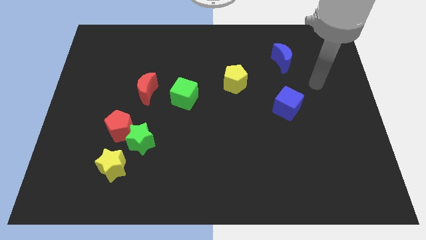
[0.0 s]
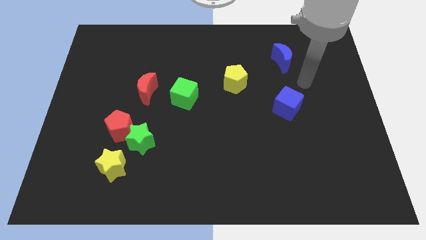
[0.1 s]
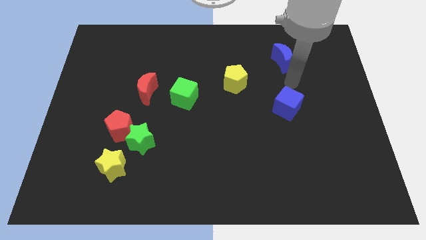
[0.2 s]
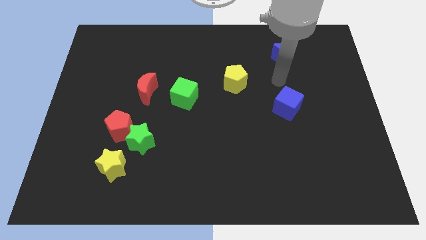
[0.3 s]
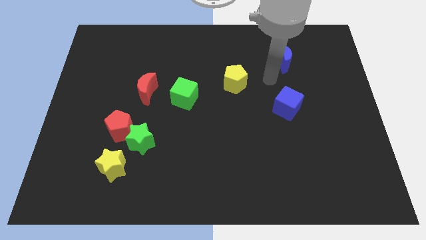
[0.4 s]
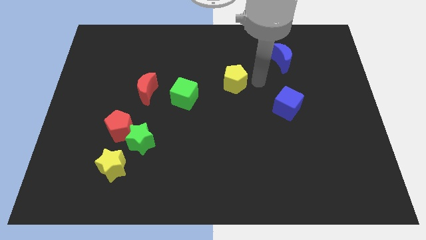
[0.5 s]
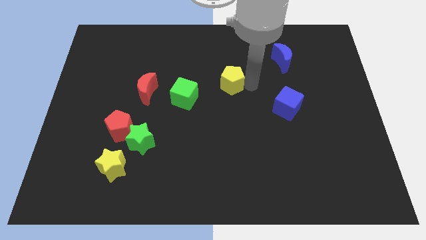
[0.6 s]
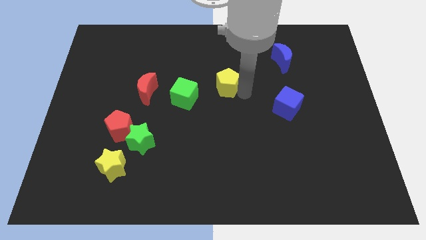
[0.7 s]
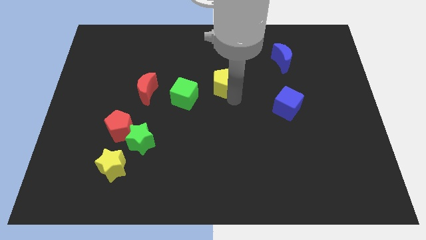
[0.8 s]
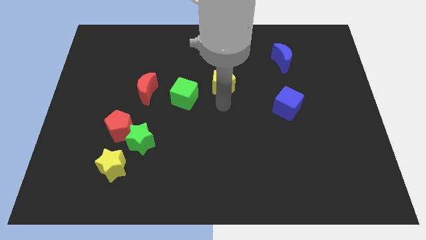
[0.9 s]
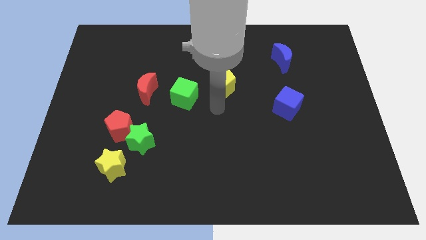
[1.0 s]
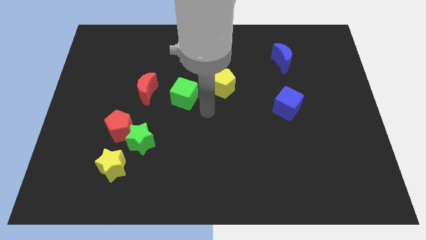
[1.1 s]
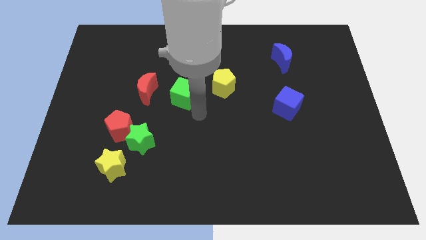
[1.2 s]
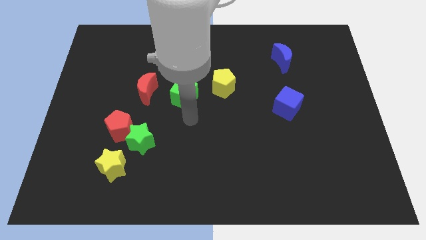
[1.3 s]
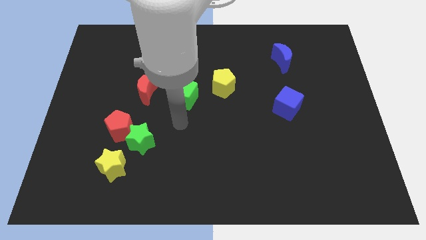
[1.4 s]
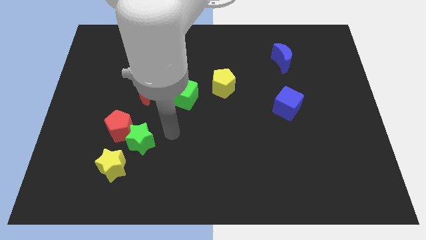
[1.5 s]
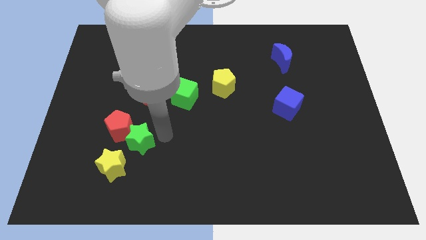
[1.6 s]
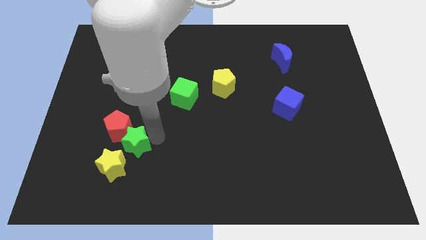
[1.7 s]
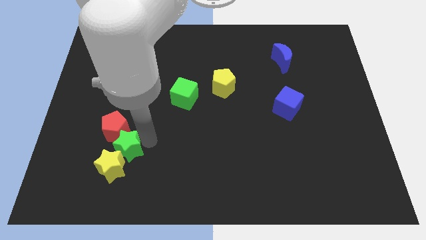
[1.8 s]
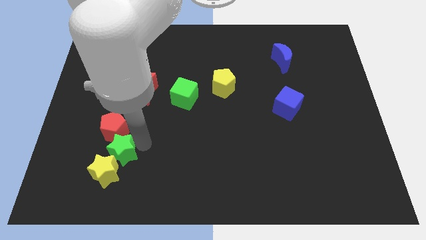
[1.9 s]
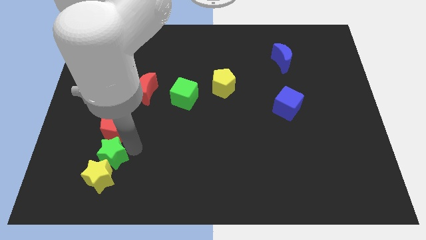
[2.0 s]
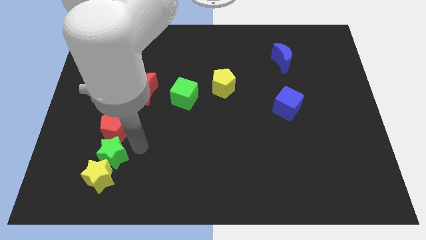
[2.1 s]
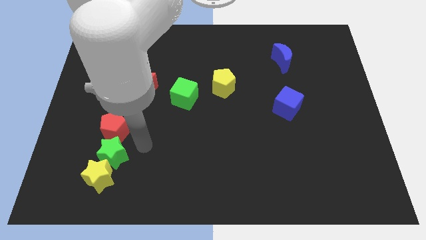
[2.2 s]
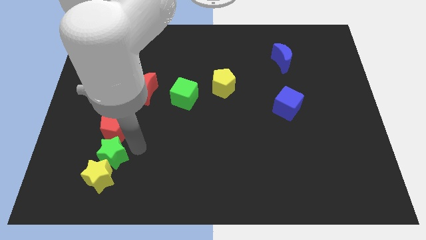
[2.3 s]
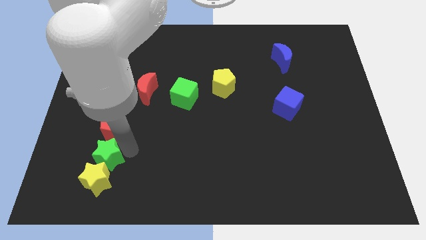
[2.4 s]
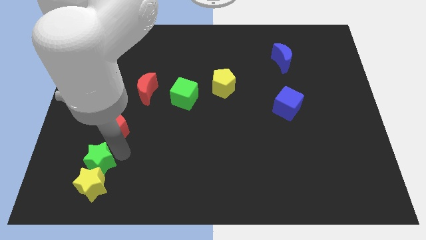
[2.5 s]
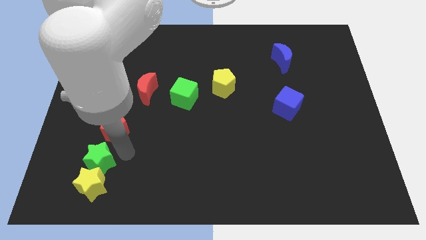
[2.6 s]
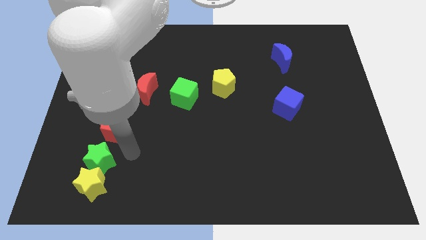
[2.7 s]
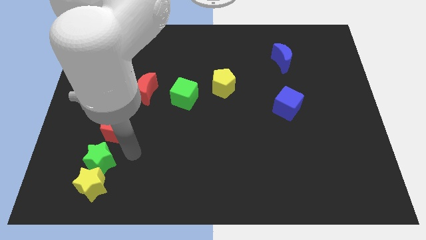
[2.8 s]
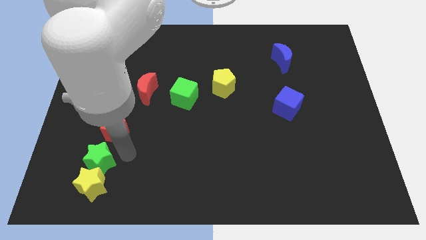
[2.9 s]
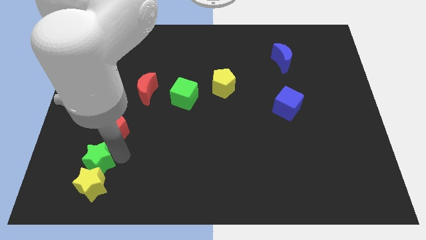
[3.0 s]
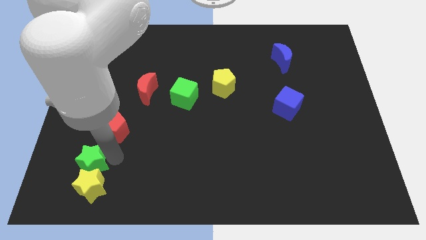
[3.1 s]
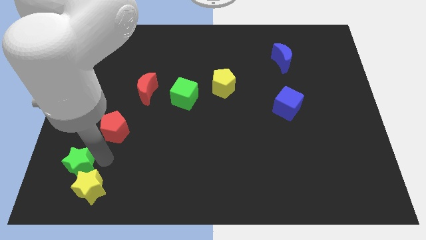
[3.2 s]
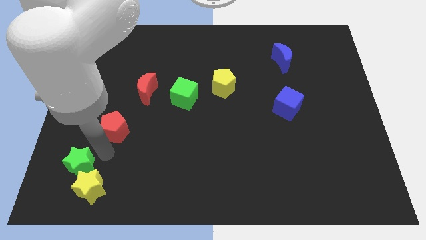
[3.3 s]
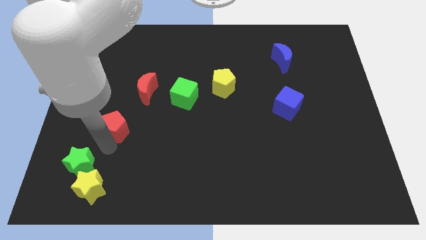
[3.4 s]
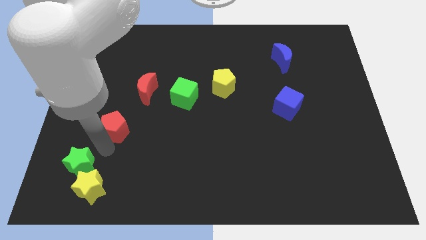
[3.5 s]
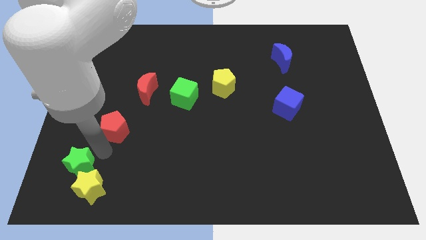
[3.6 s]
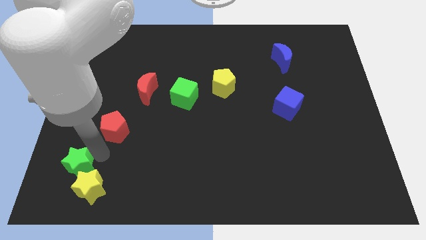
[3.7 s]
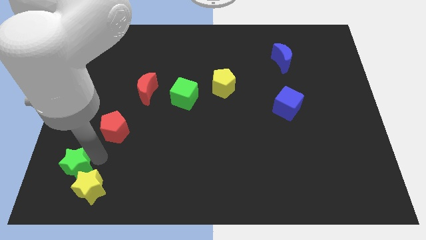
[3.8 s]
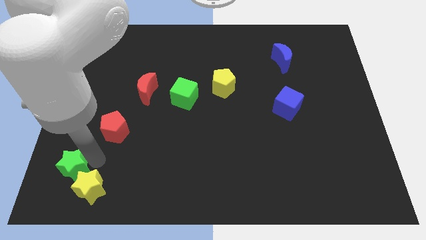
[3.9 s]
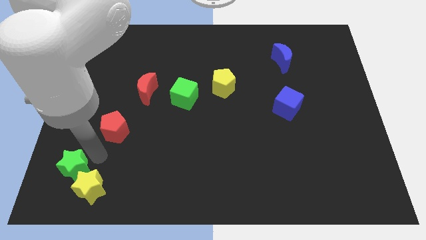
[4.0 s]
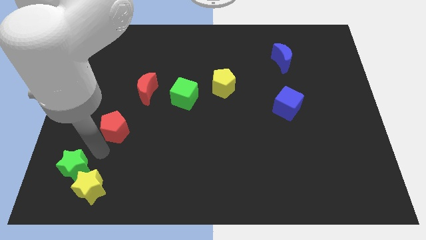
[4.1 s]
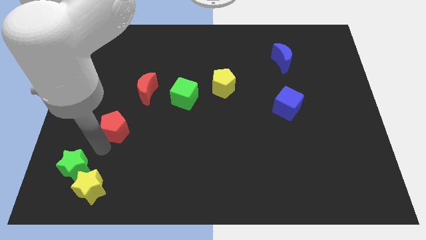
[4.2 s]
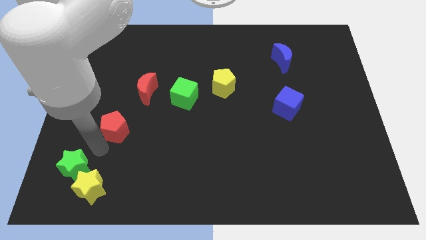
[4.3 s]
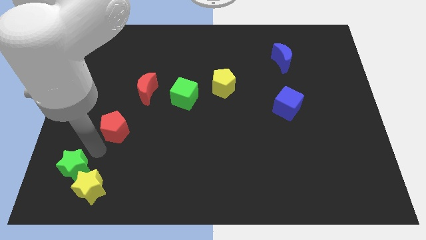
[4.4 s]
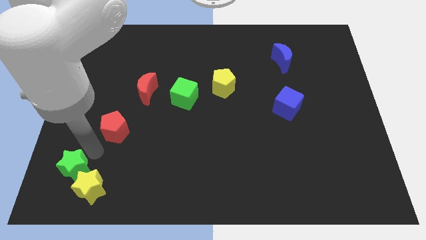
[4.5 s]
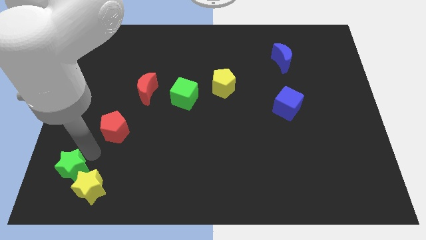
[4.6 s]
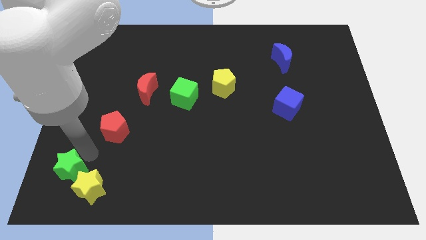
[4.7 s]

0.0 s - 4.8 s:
slide the green star to the bottom left of the board

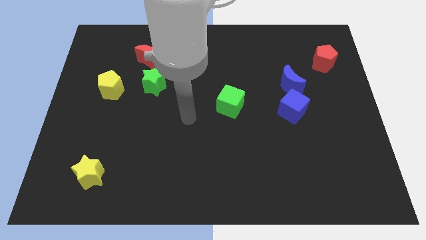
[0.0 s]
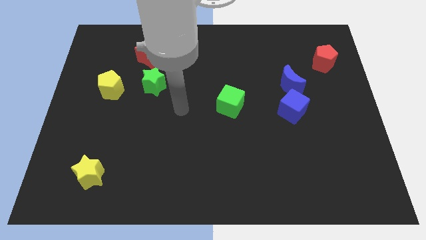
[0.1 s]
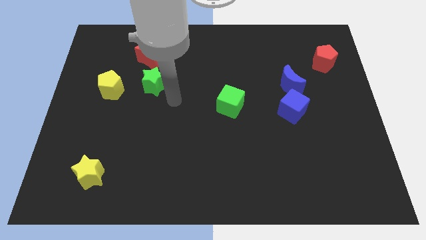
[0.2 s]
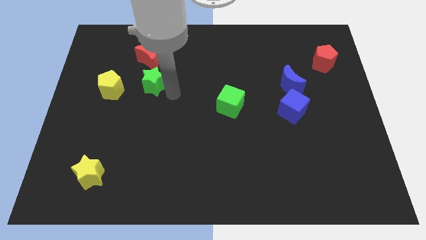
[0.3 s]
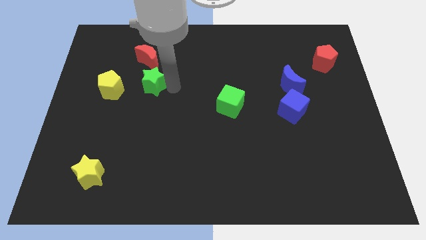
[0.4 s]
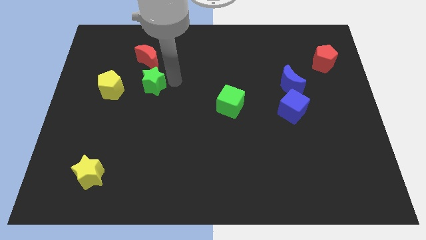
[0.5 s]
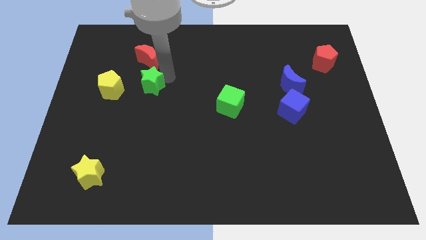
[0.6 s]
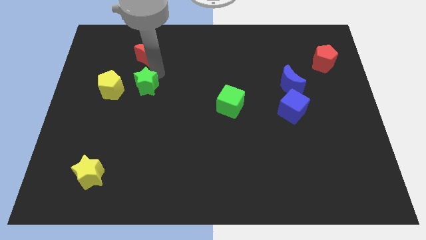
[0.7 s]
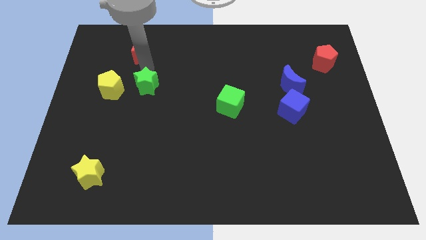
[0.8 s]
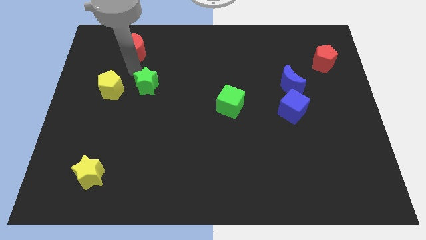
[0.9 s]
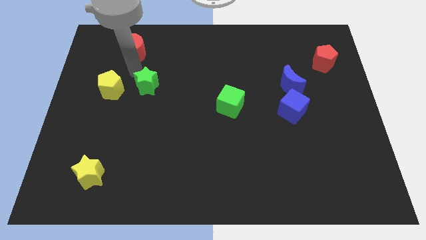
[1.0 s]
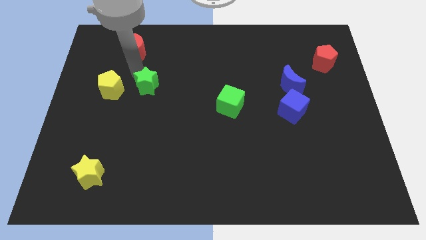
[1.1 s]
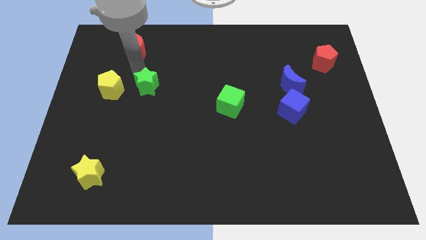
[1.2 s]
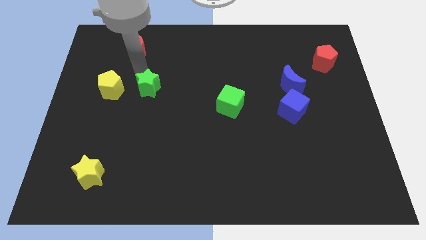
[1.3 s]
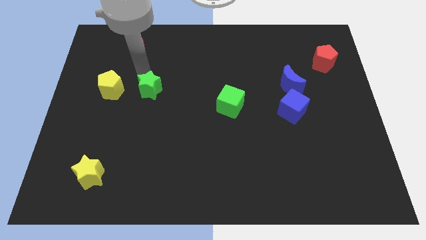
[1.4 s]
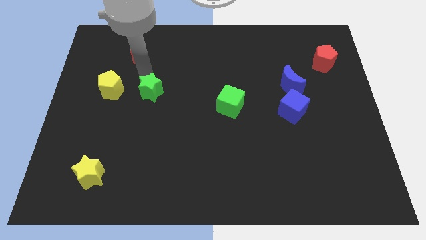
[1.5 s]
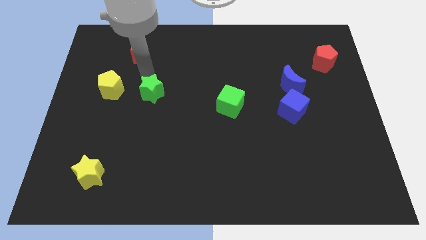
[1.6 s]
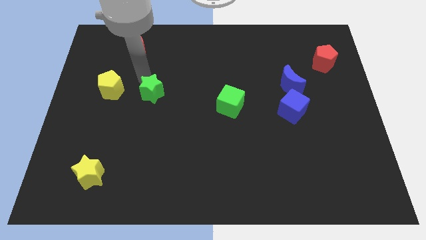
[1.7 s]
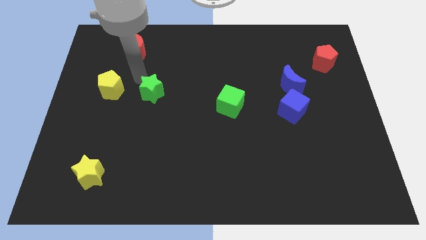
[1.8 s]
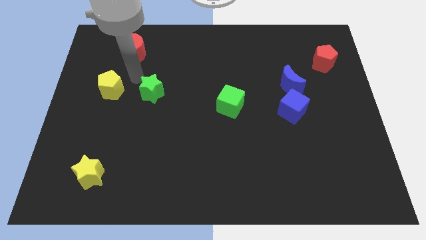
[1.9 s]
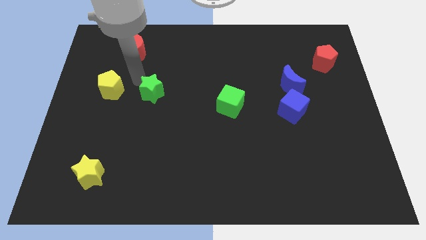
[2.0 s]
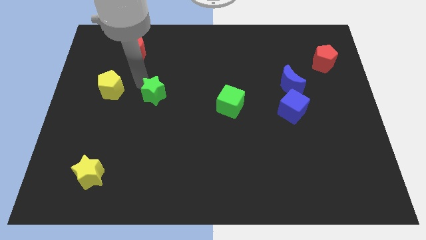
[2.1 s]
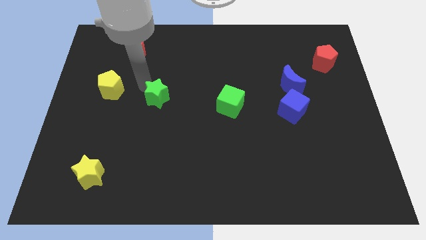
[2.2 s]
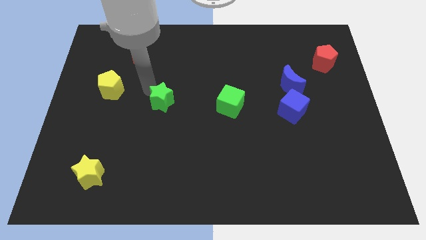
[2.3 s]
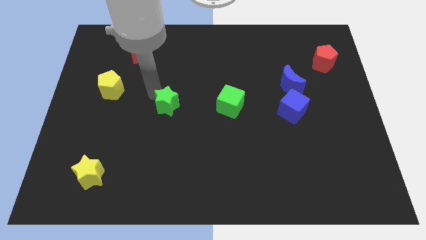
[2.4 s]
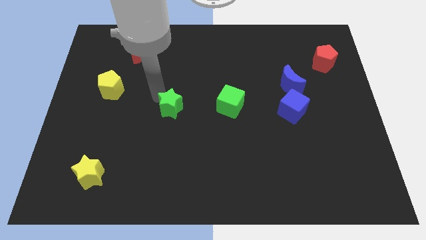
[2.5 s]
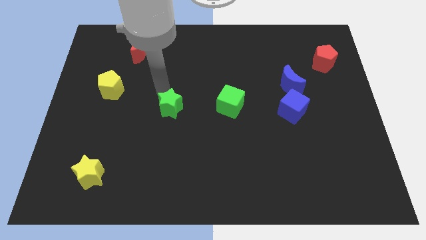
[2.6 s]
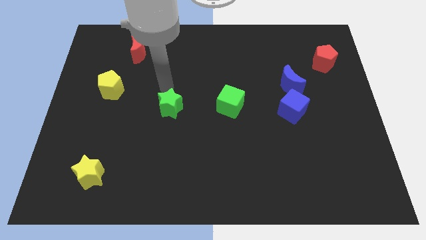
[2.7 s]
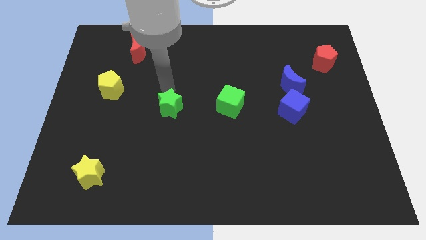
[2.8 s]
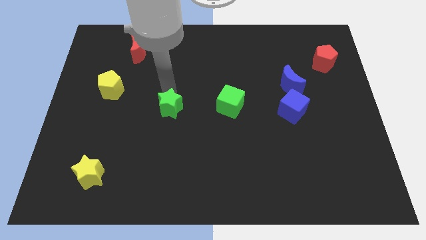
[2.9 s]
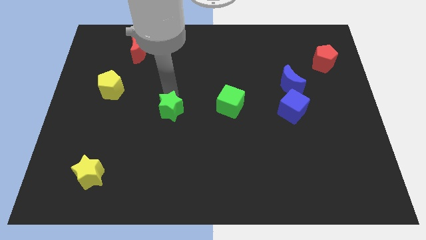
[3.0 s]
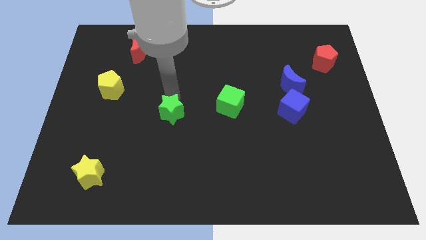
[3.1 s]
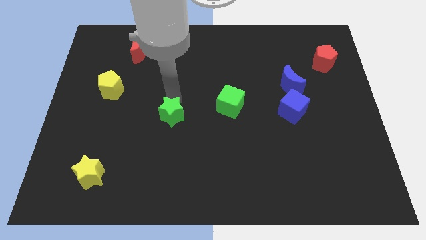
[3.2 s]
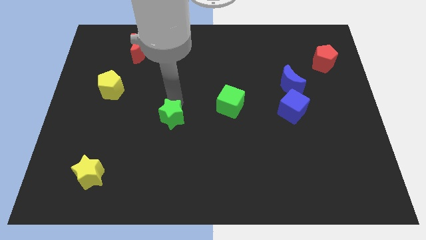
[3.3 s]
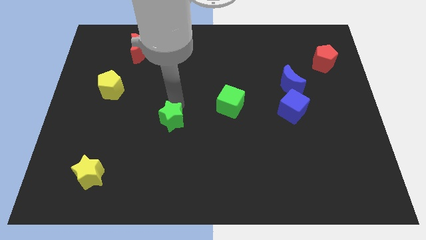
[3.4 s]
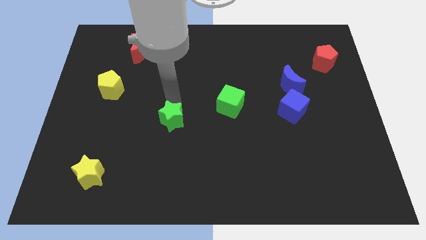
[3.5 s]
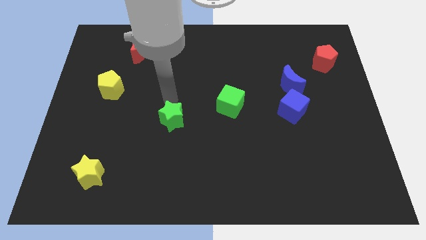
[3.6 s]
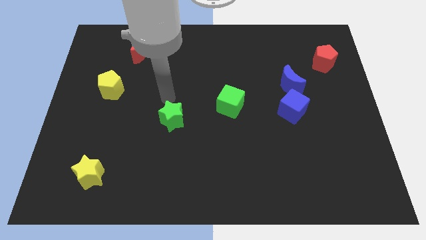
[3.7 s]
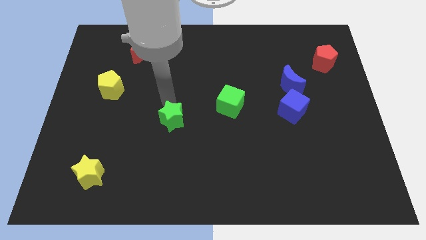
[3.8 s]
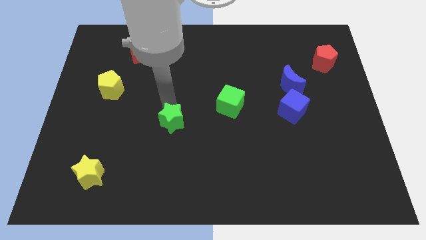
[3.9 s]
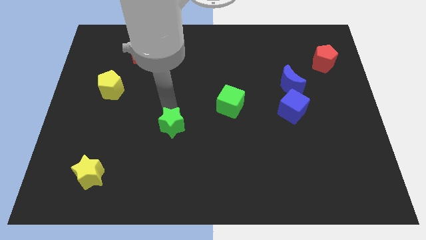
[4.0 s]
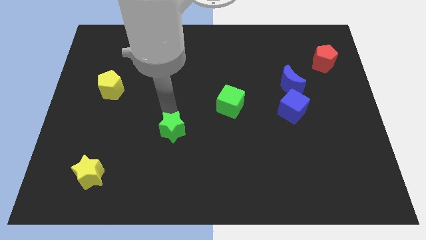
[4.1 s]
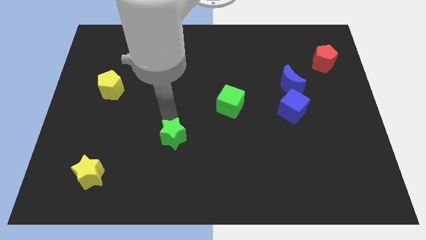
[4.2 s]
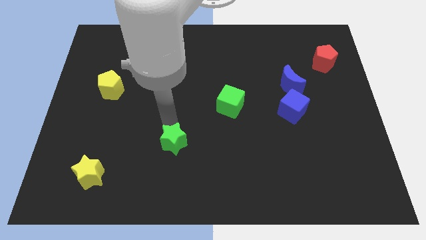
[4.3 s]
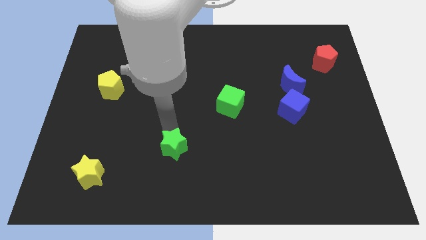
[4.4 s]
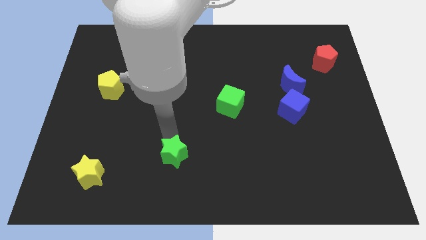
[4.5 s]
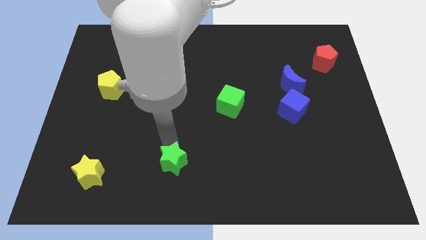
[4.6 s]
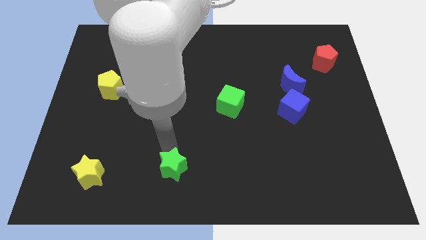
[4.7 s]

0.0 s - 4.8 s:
slide the green star to the bottom side
